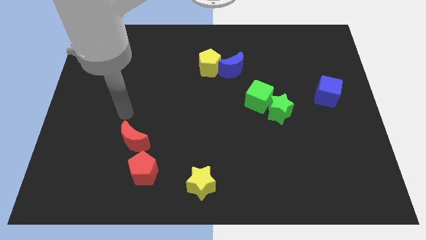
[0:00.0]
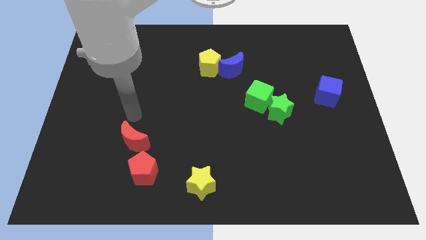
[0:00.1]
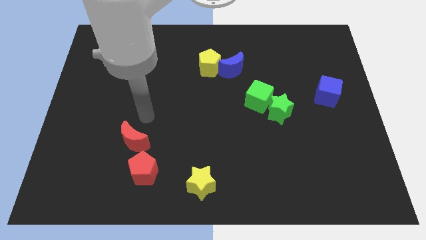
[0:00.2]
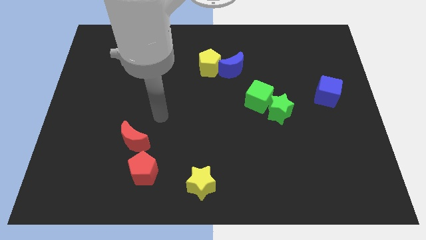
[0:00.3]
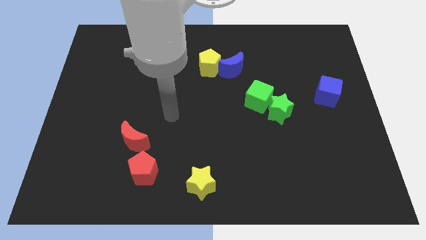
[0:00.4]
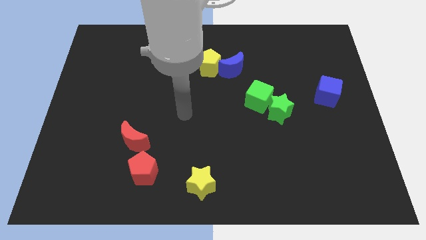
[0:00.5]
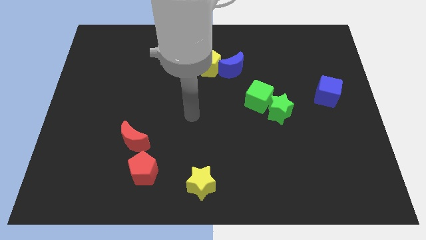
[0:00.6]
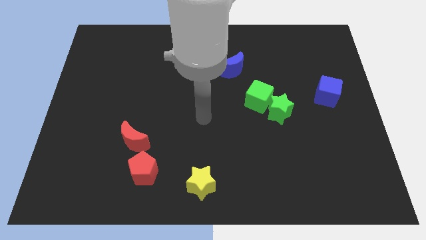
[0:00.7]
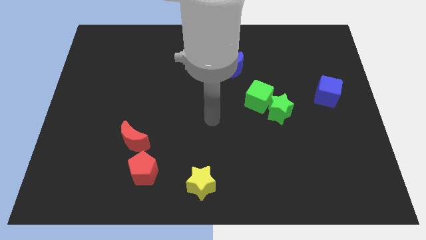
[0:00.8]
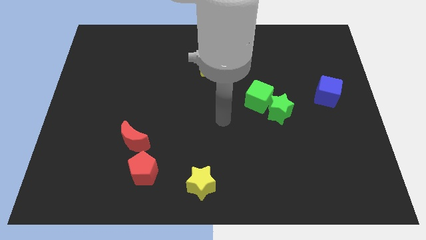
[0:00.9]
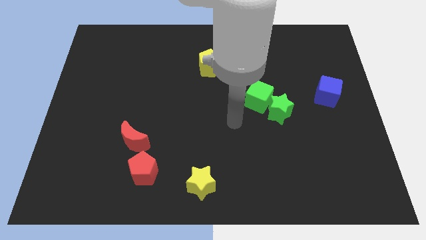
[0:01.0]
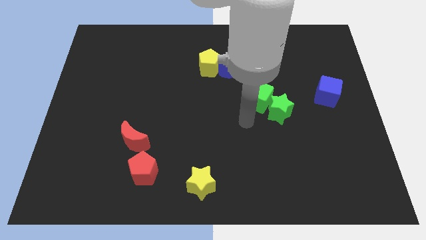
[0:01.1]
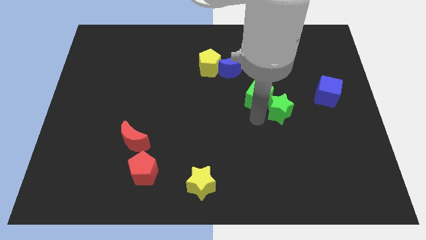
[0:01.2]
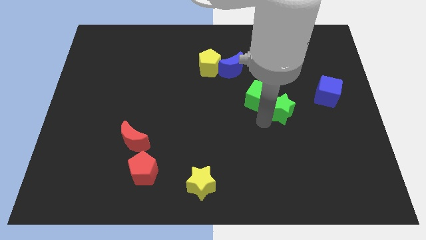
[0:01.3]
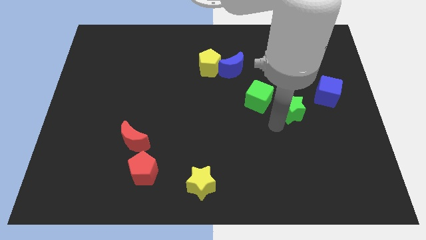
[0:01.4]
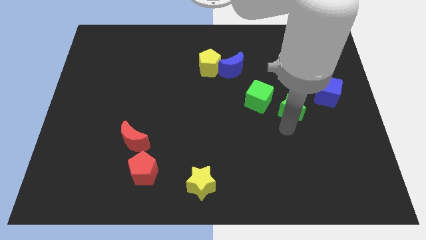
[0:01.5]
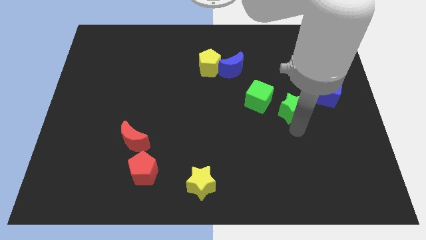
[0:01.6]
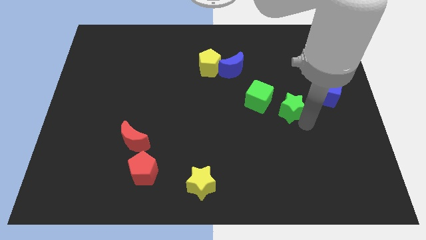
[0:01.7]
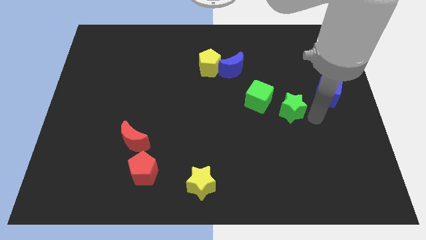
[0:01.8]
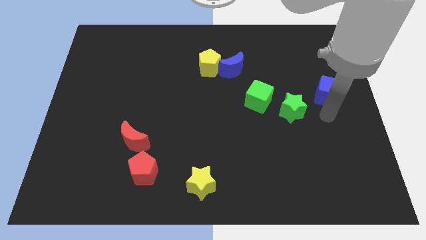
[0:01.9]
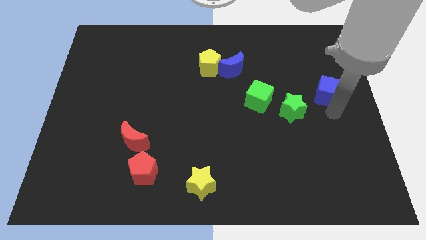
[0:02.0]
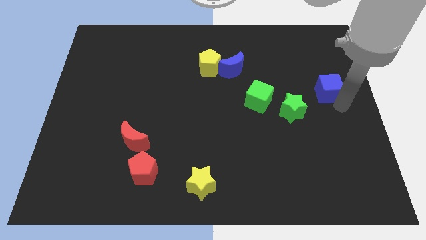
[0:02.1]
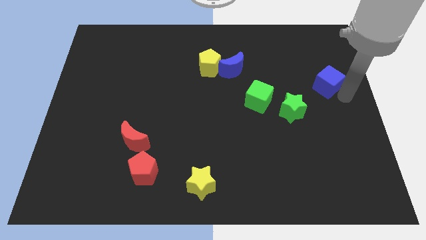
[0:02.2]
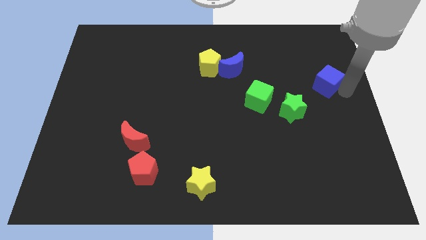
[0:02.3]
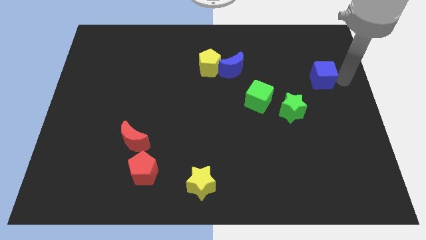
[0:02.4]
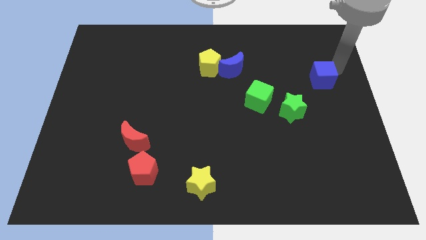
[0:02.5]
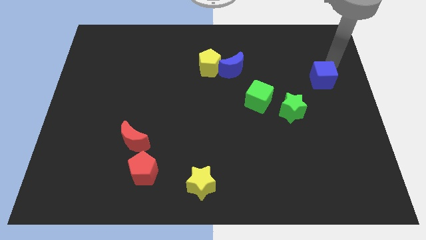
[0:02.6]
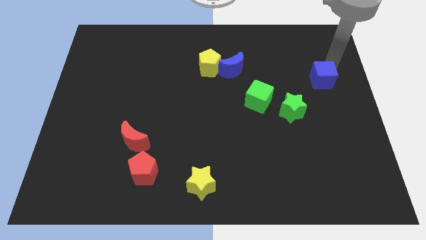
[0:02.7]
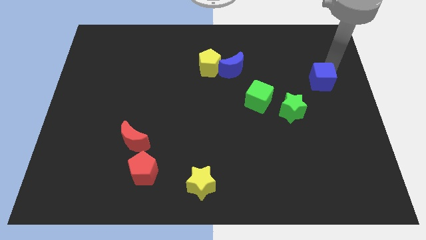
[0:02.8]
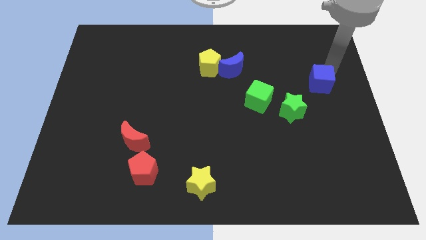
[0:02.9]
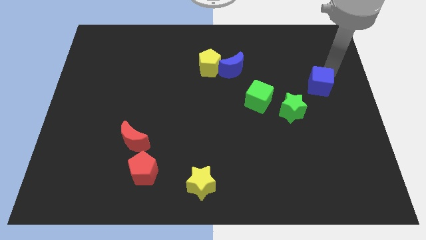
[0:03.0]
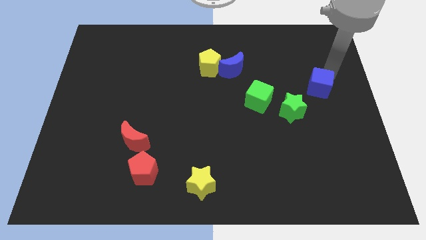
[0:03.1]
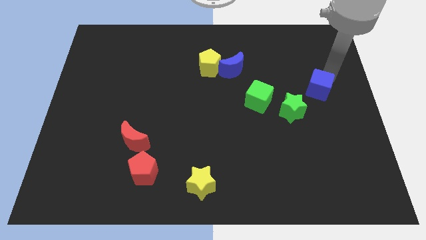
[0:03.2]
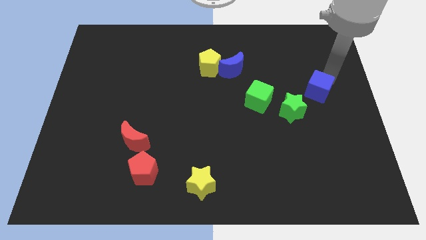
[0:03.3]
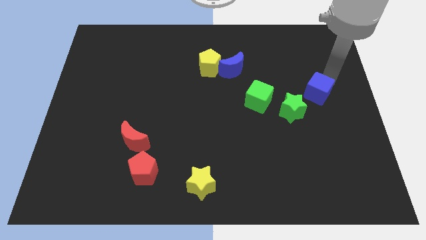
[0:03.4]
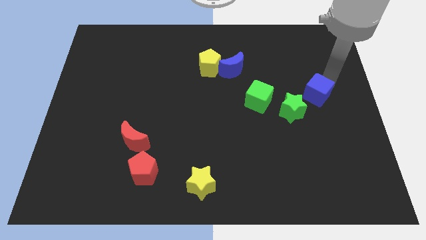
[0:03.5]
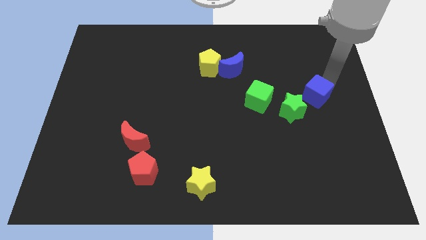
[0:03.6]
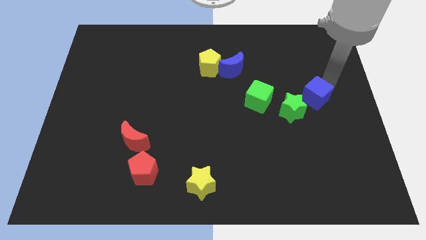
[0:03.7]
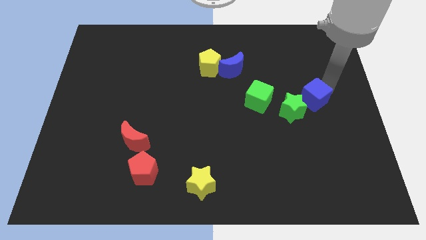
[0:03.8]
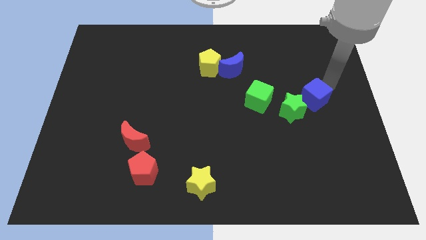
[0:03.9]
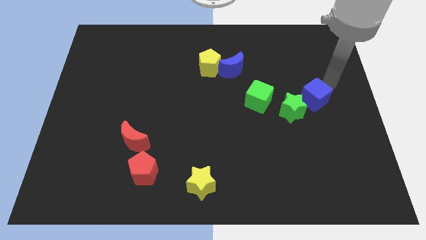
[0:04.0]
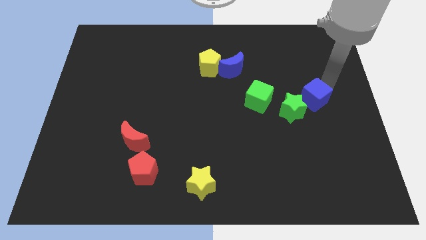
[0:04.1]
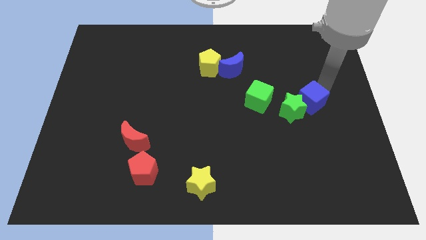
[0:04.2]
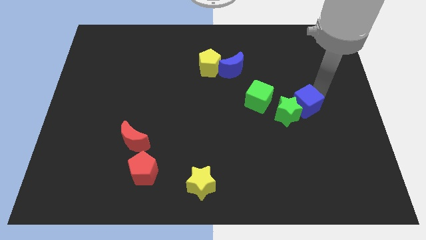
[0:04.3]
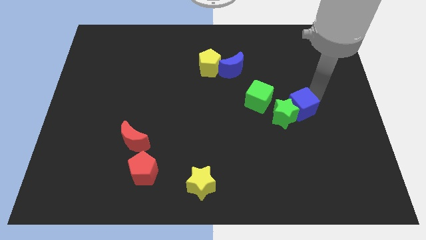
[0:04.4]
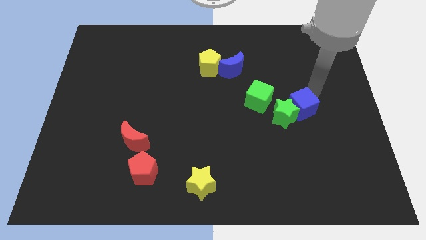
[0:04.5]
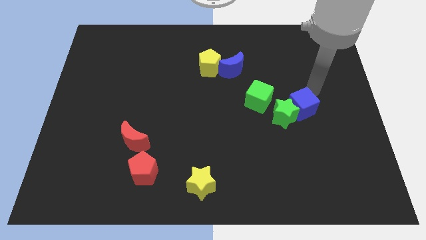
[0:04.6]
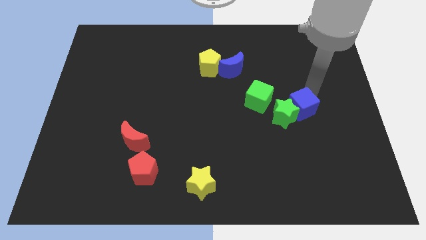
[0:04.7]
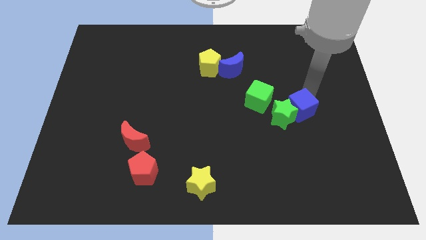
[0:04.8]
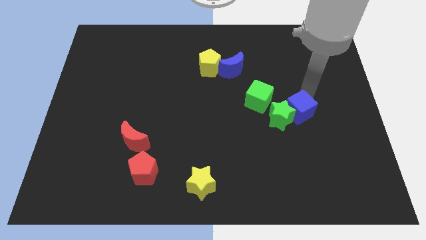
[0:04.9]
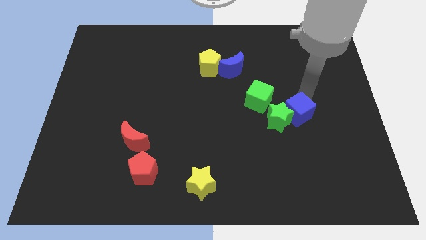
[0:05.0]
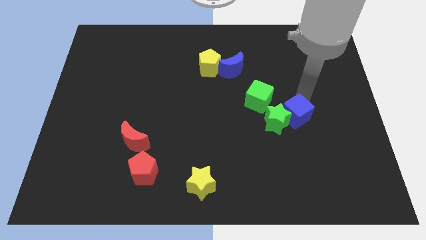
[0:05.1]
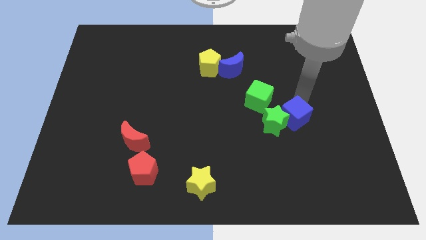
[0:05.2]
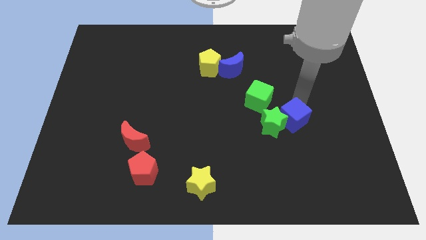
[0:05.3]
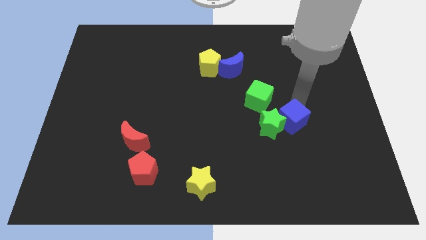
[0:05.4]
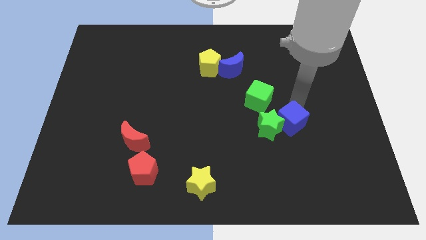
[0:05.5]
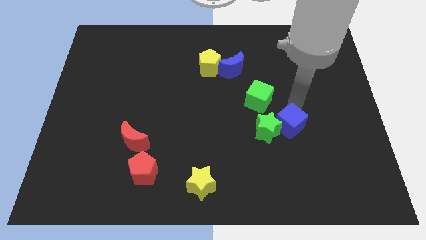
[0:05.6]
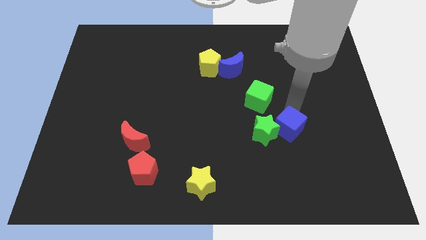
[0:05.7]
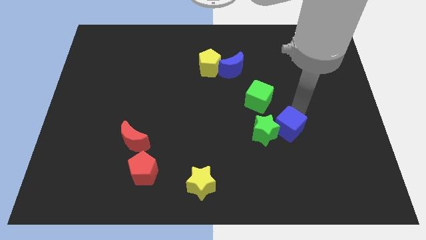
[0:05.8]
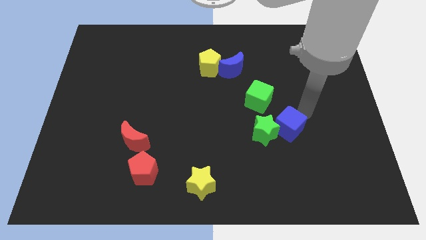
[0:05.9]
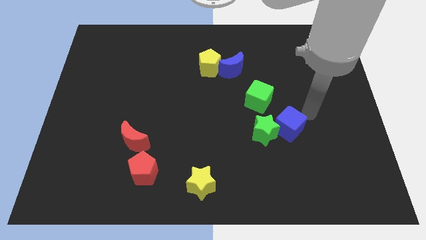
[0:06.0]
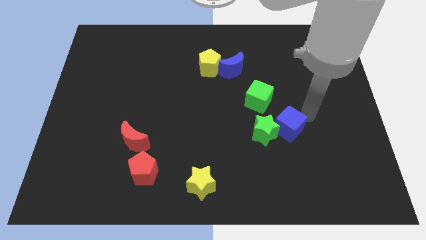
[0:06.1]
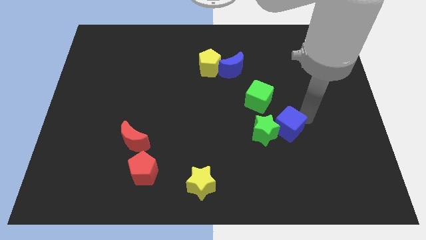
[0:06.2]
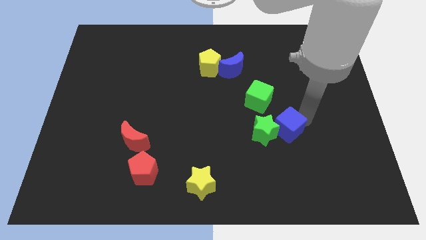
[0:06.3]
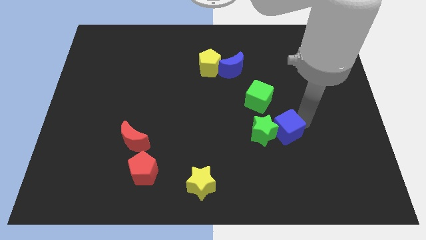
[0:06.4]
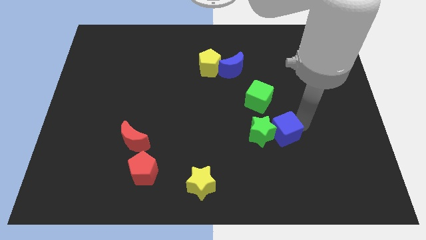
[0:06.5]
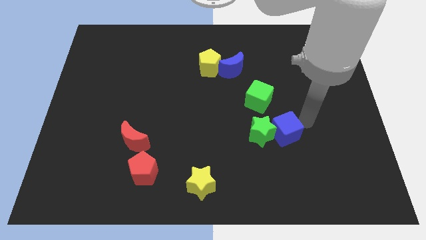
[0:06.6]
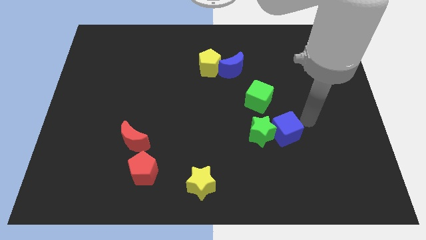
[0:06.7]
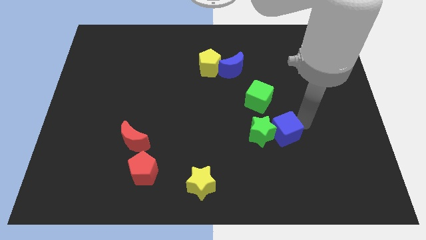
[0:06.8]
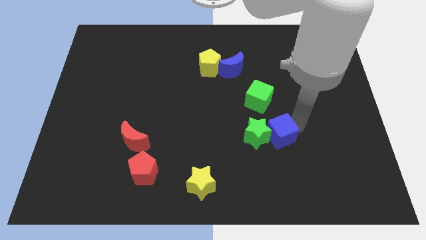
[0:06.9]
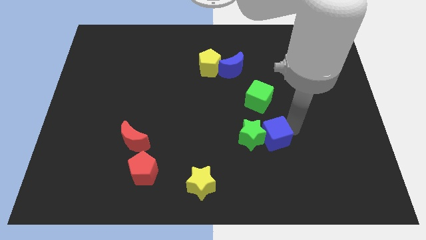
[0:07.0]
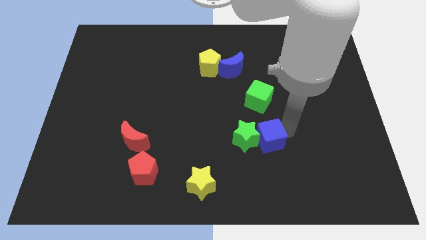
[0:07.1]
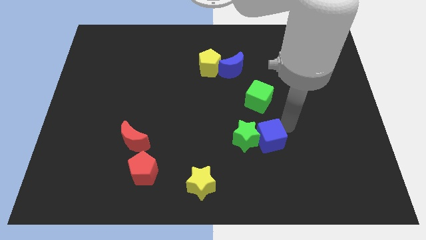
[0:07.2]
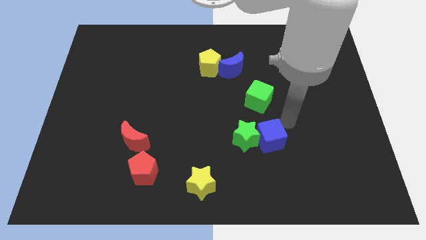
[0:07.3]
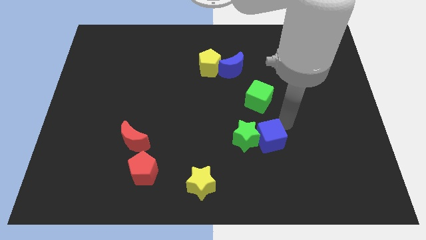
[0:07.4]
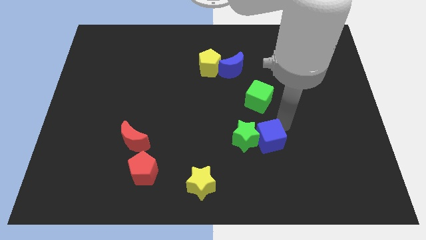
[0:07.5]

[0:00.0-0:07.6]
push the blue cube down and then to the left

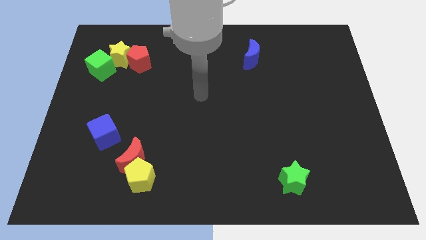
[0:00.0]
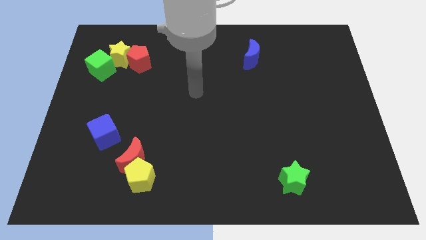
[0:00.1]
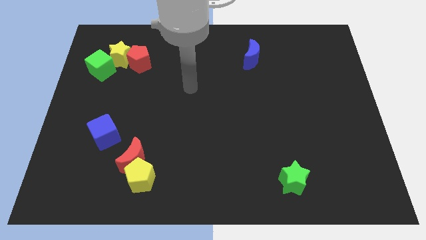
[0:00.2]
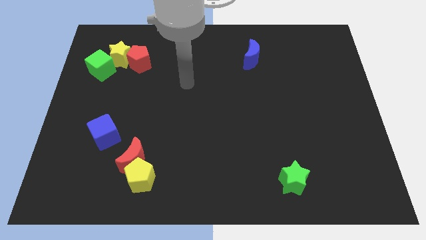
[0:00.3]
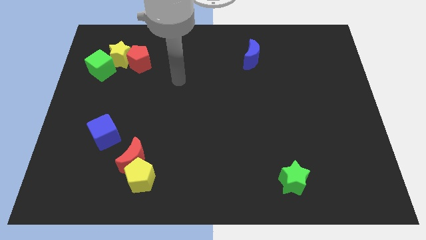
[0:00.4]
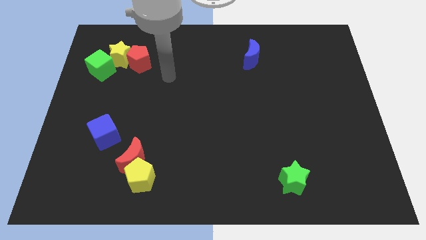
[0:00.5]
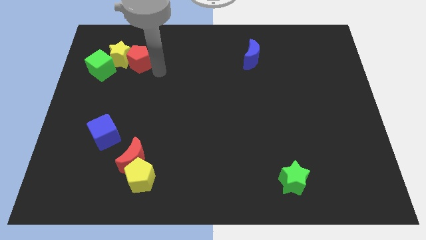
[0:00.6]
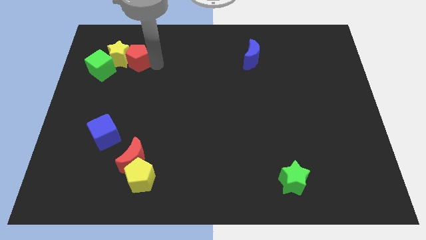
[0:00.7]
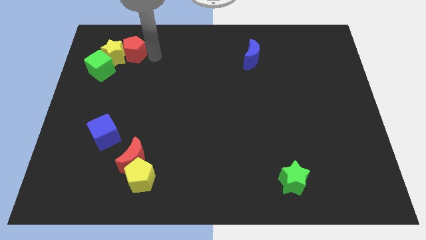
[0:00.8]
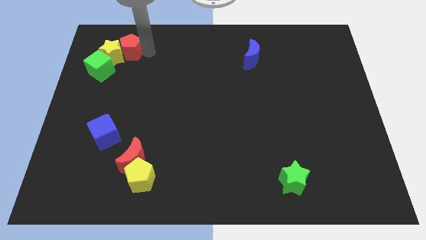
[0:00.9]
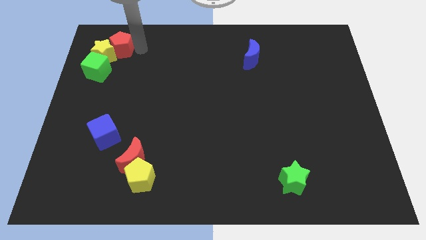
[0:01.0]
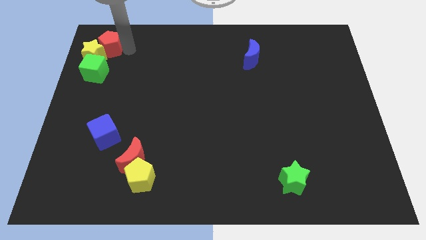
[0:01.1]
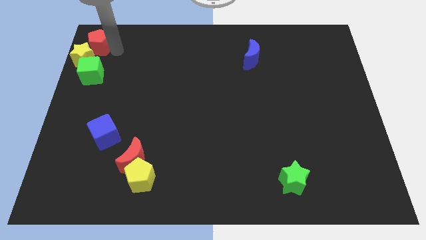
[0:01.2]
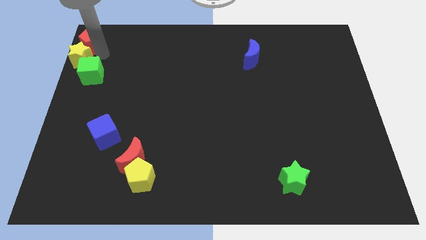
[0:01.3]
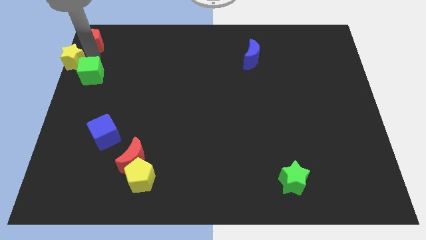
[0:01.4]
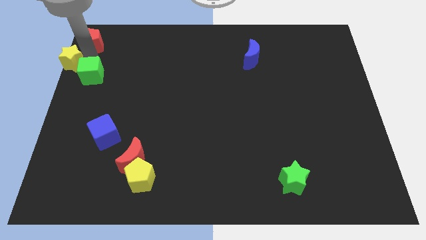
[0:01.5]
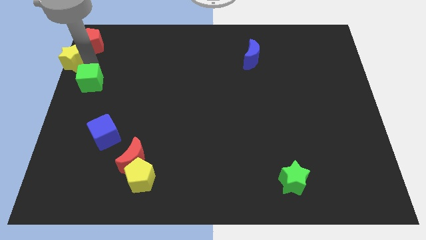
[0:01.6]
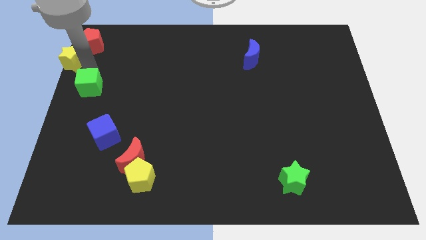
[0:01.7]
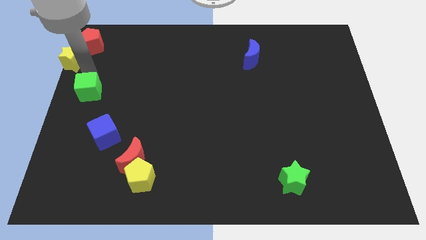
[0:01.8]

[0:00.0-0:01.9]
move the green cube down a bit
